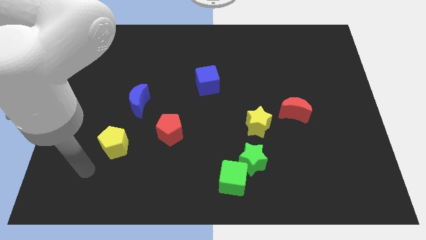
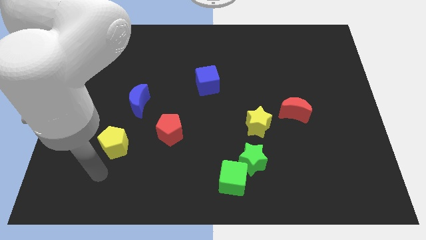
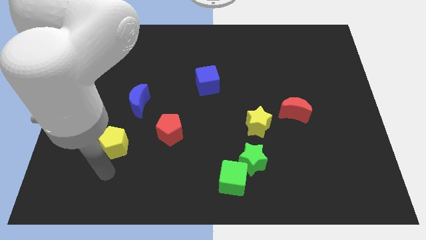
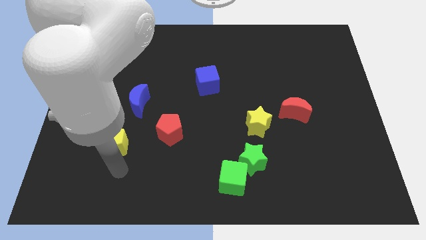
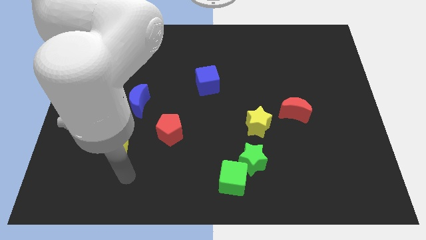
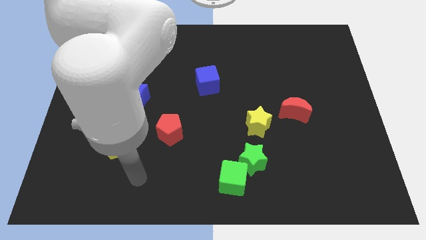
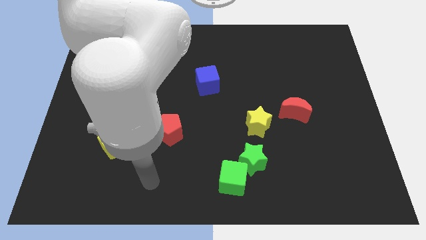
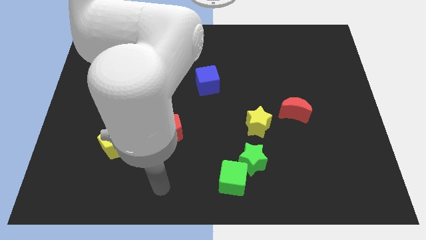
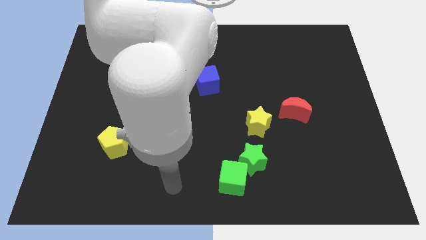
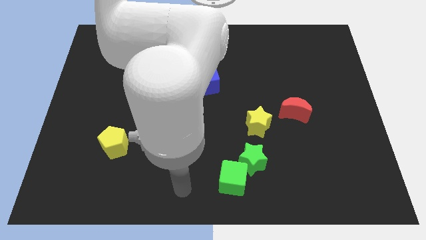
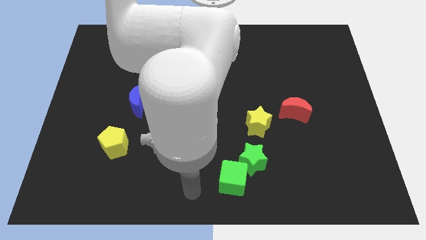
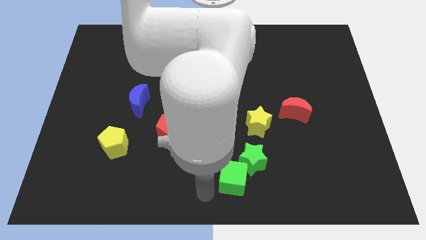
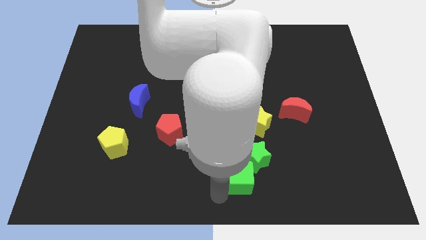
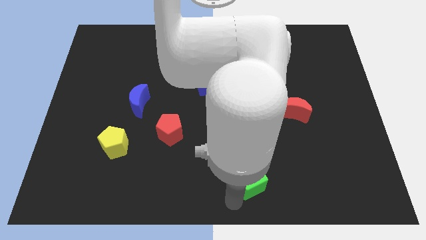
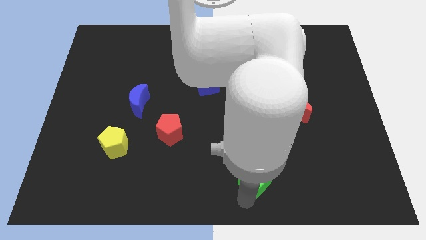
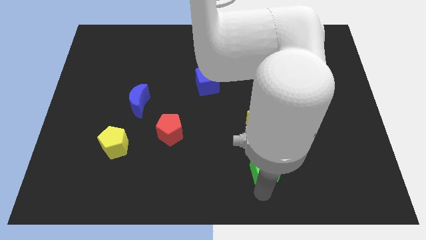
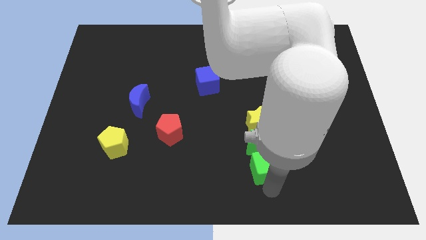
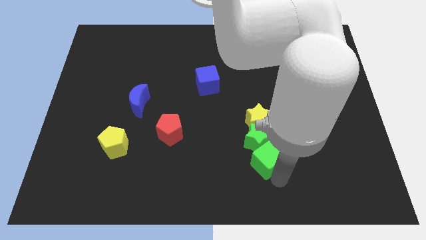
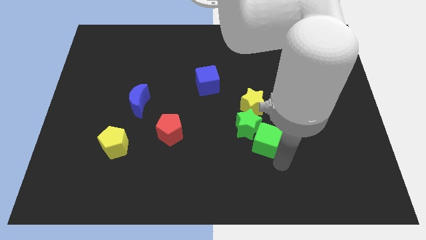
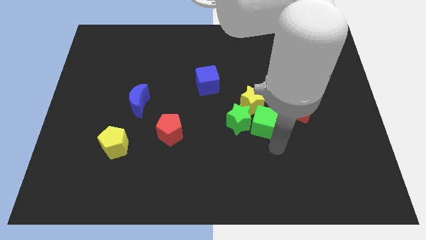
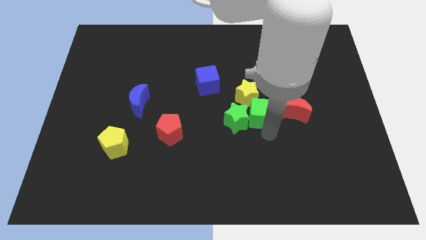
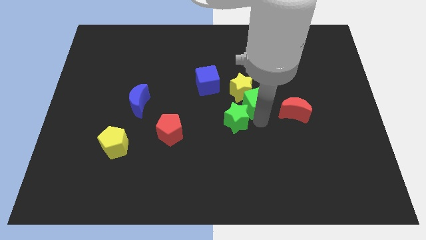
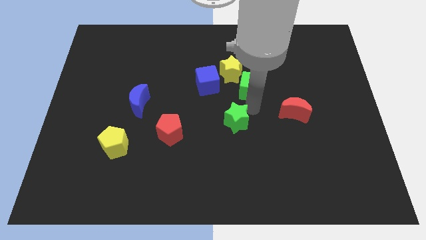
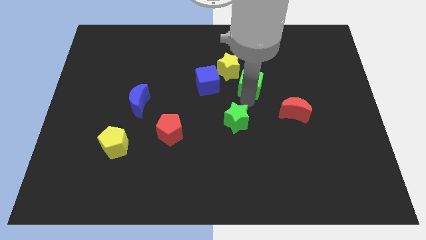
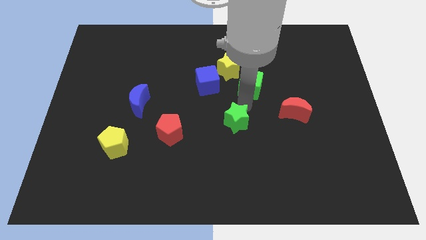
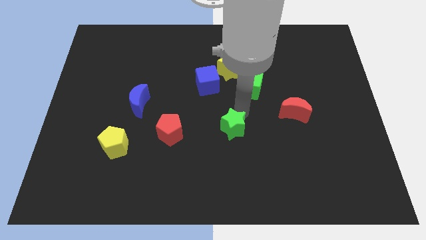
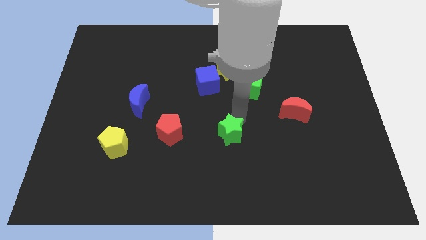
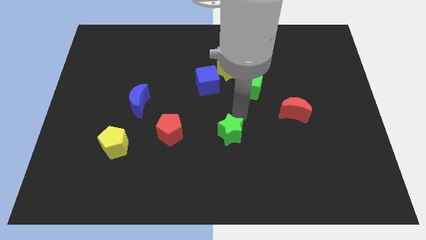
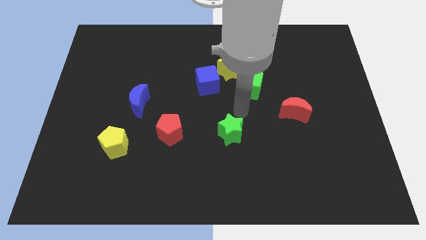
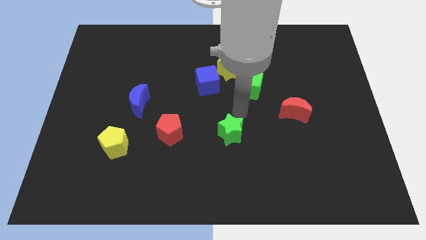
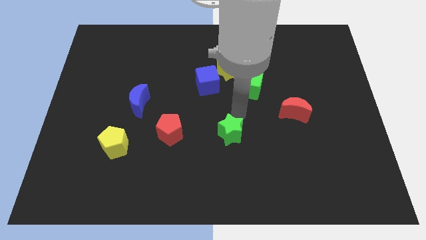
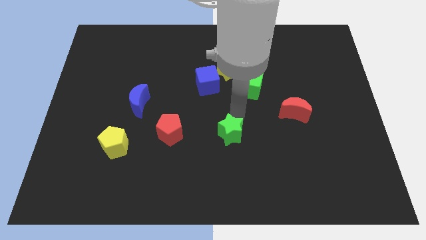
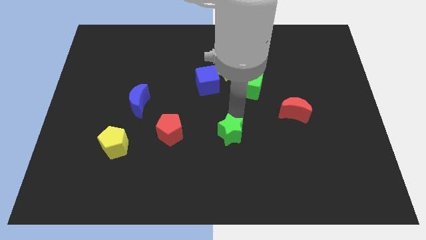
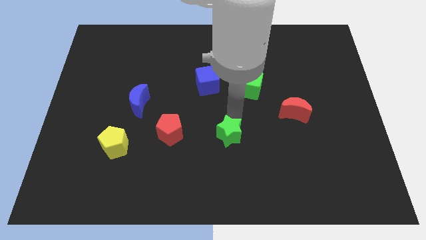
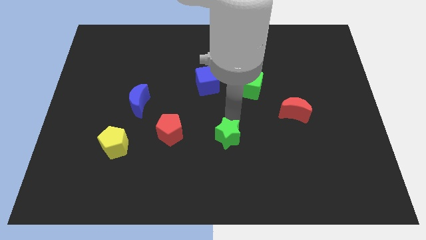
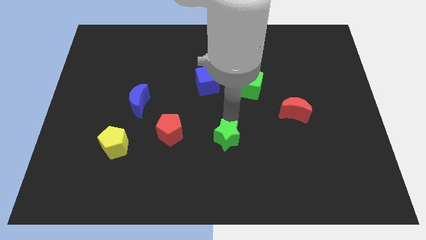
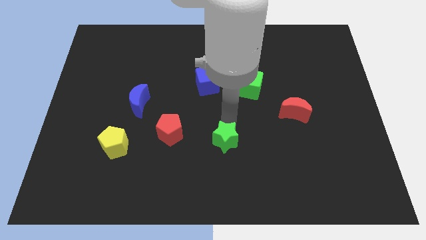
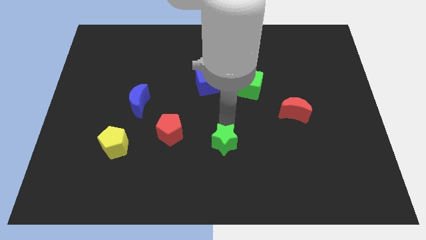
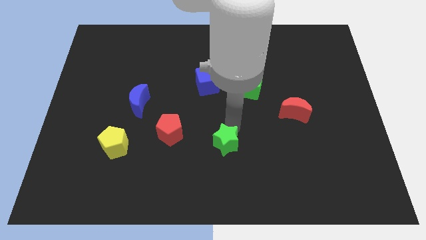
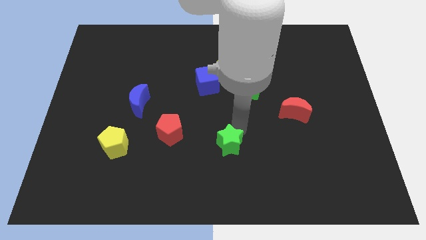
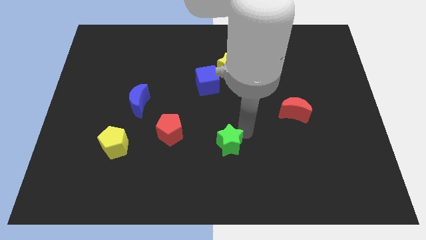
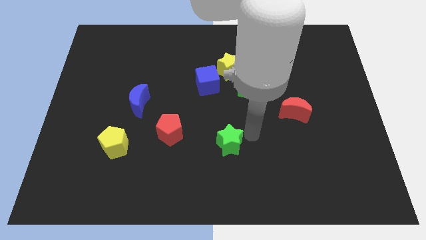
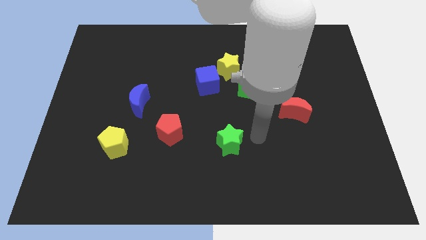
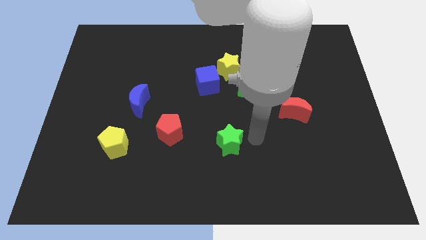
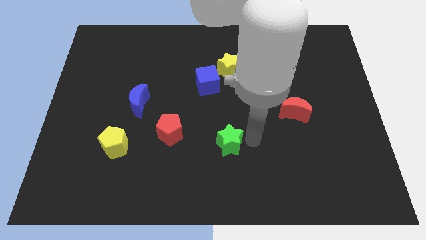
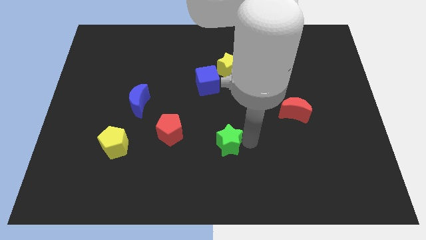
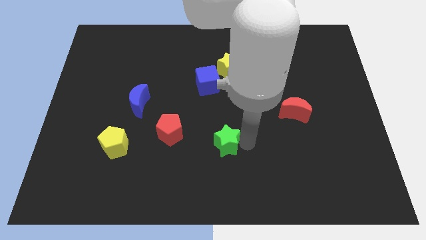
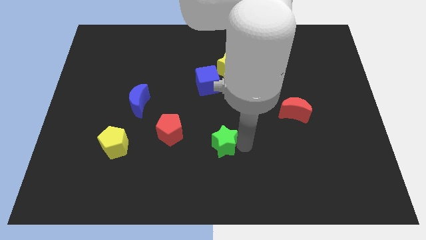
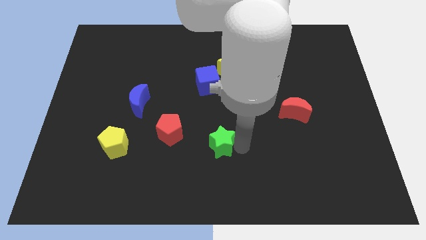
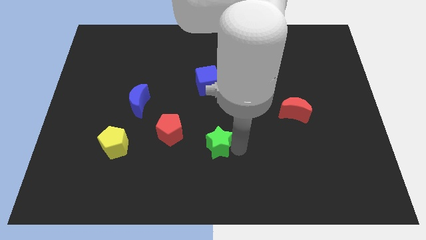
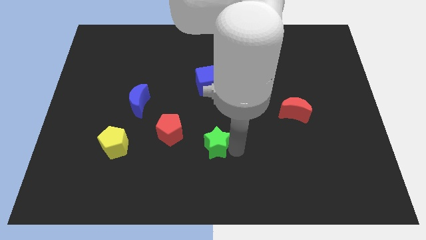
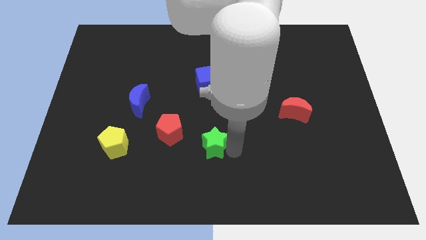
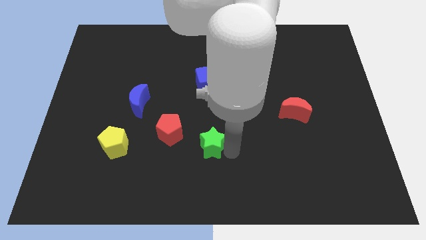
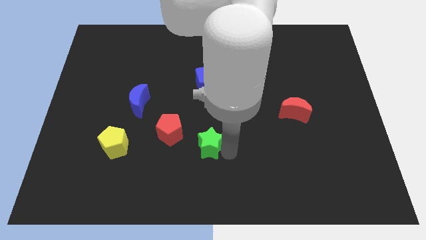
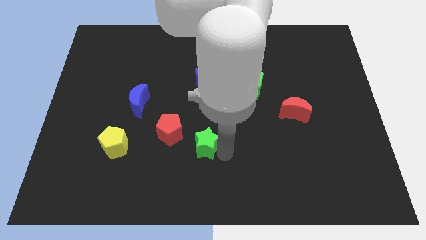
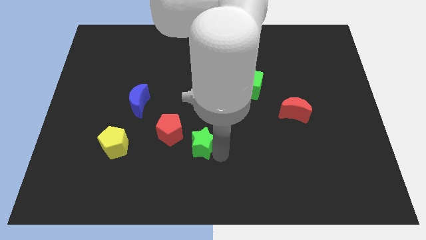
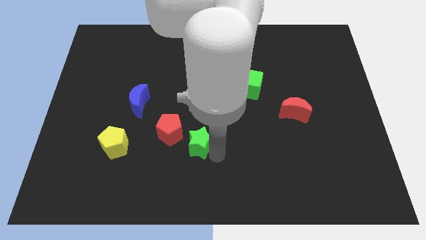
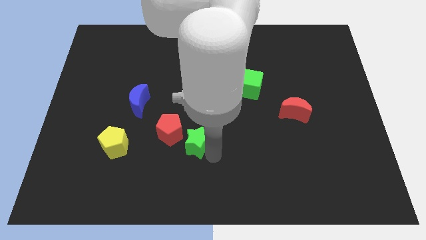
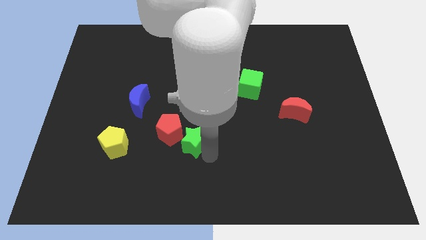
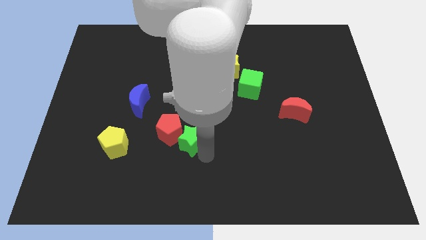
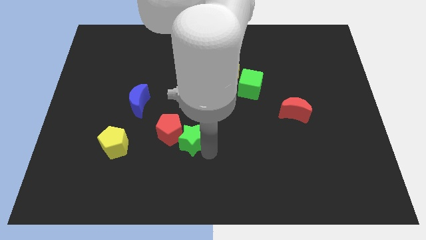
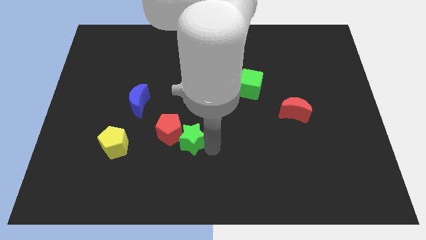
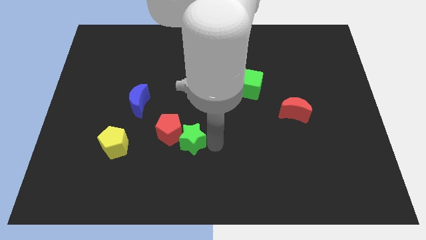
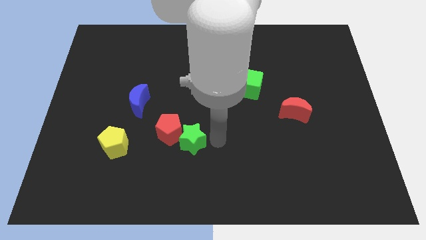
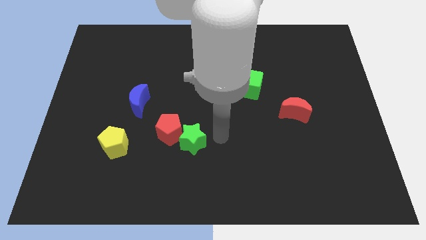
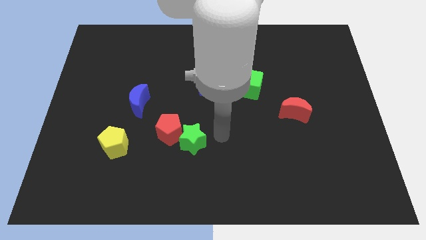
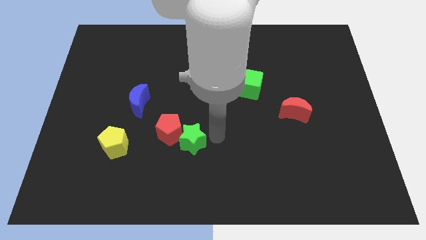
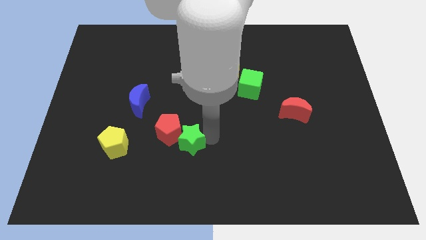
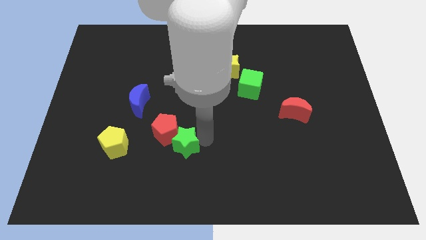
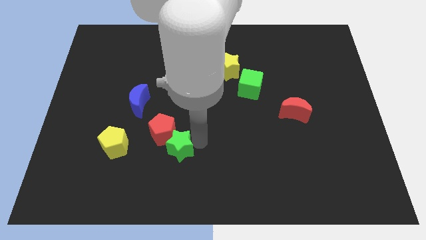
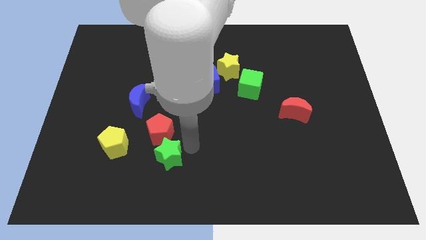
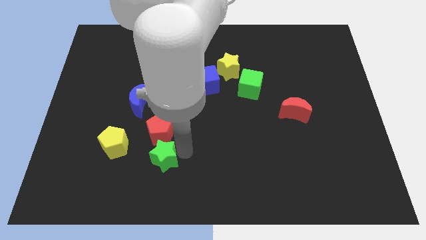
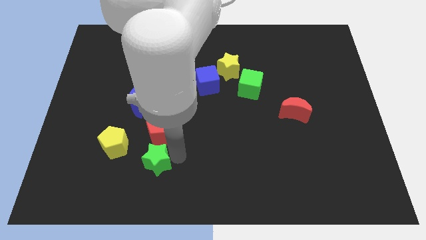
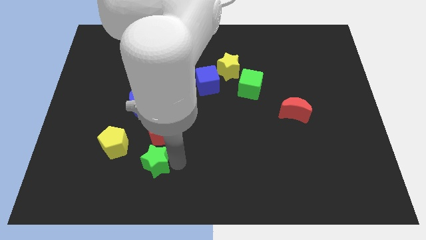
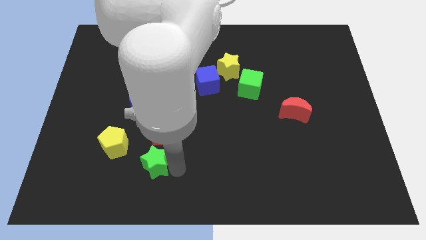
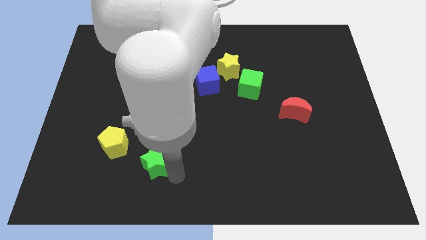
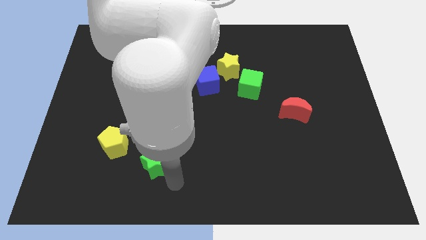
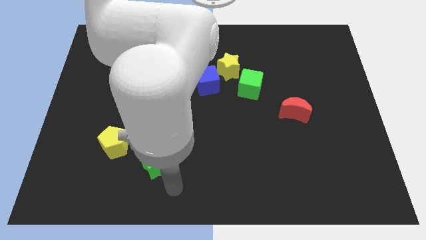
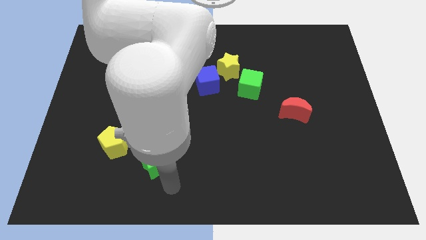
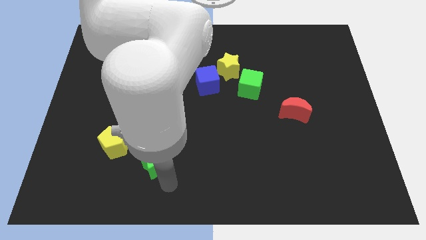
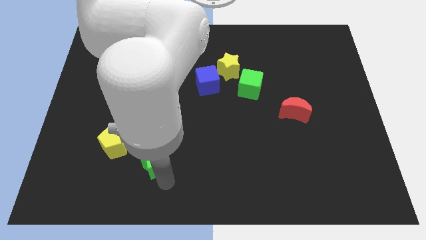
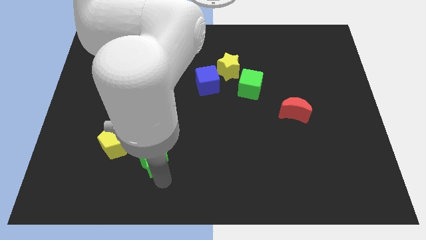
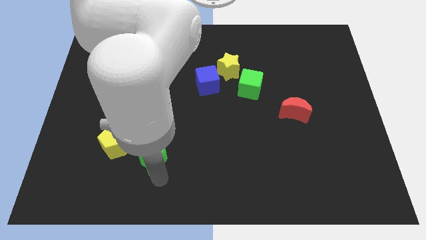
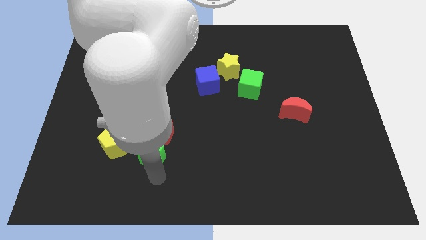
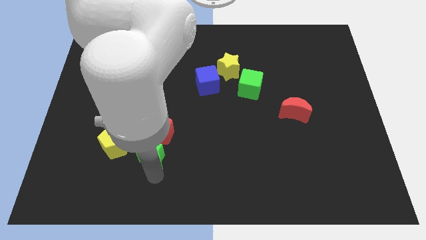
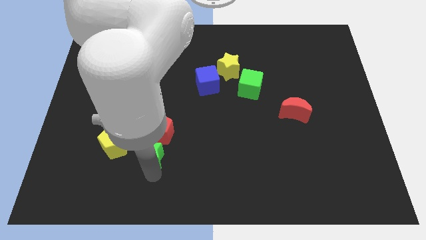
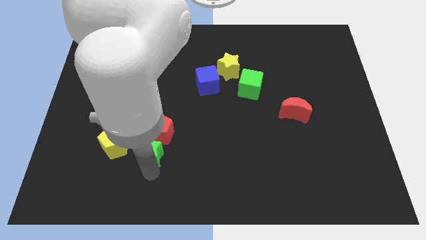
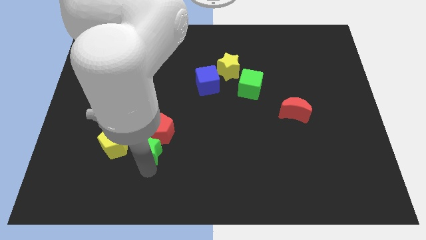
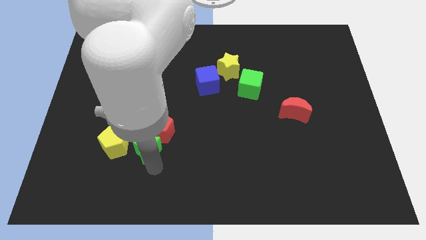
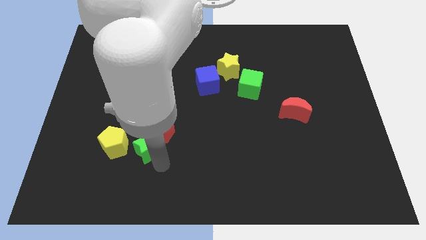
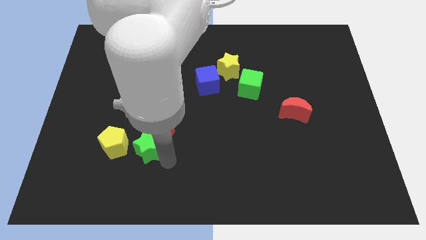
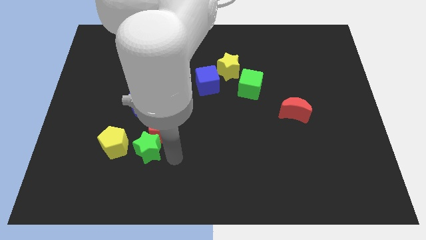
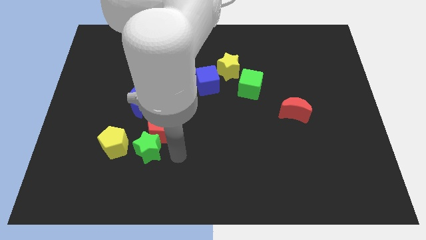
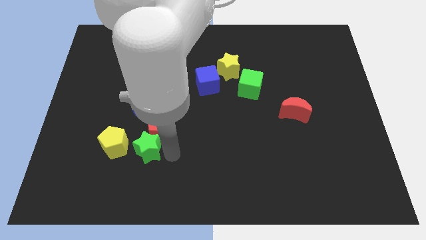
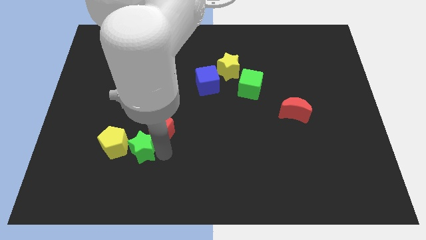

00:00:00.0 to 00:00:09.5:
move the green star next to the yellow pentagon
